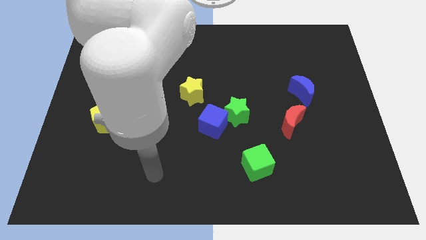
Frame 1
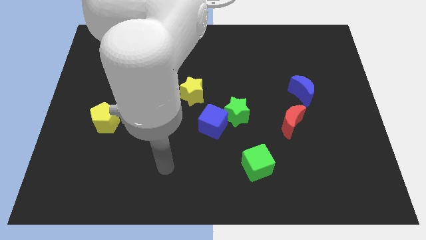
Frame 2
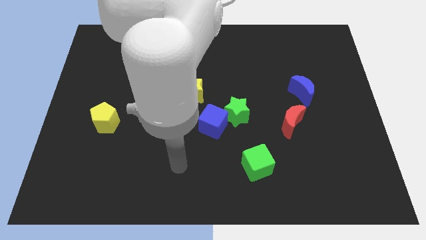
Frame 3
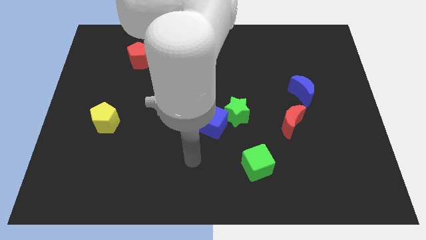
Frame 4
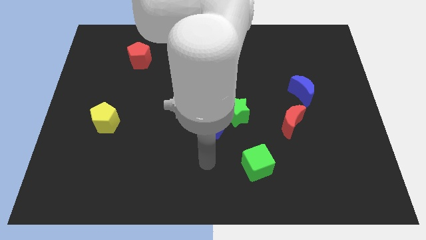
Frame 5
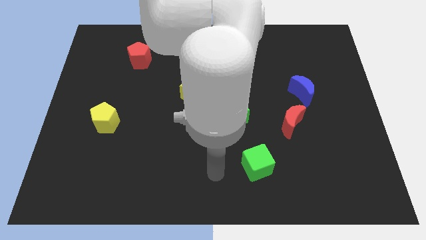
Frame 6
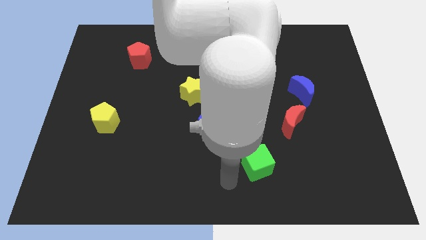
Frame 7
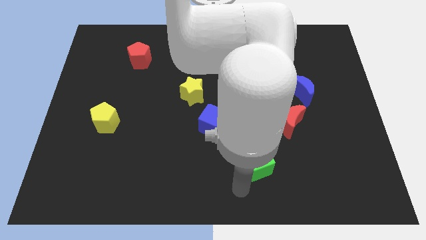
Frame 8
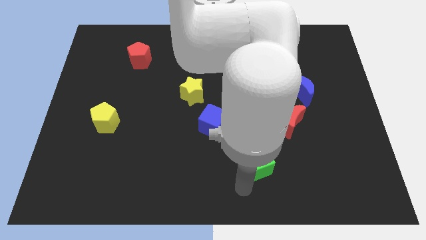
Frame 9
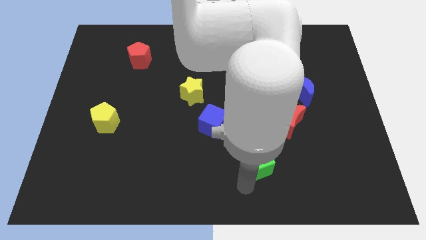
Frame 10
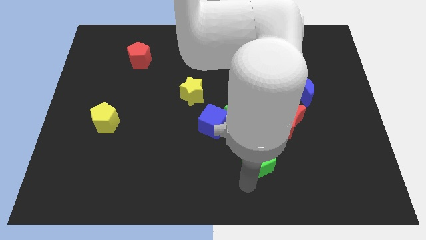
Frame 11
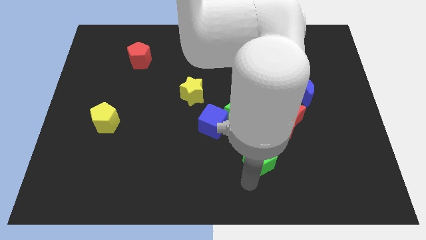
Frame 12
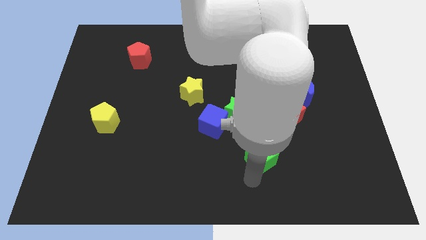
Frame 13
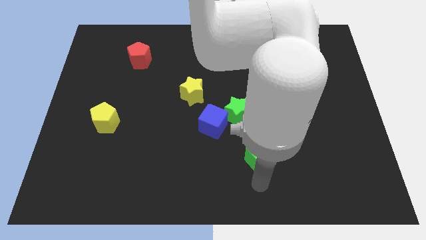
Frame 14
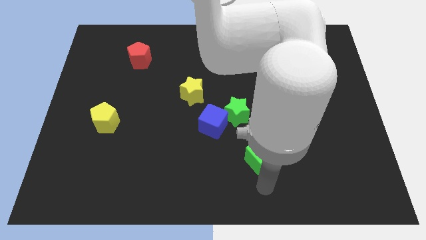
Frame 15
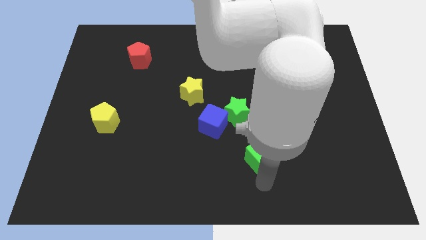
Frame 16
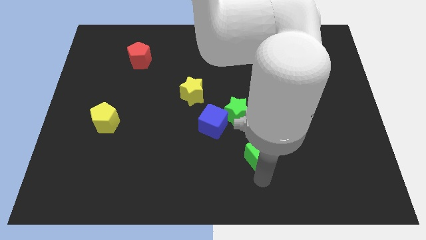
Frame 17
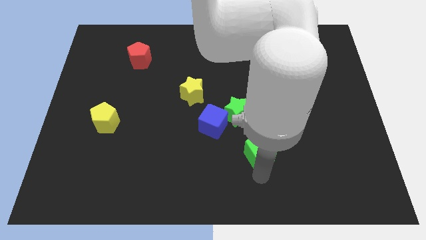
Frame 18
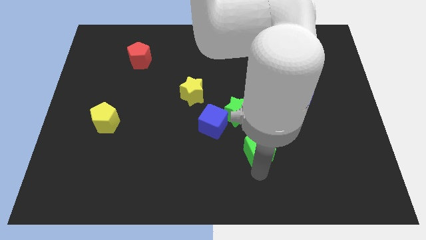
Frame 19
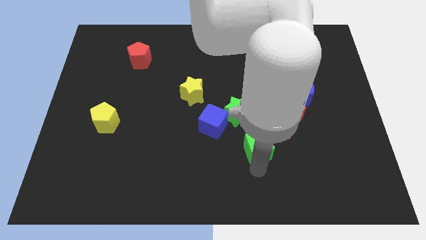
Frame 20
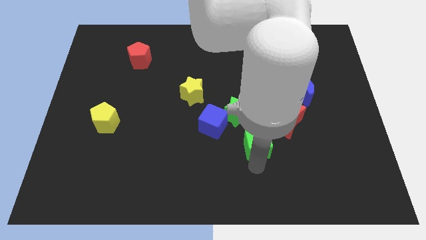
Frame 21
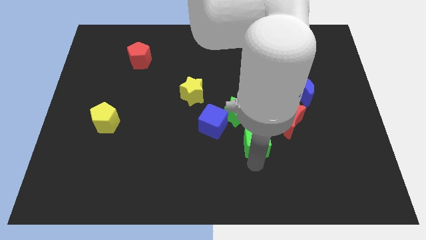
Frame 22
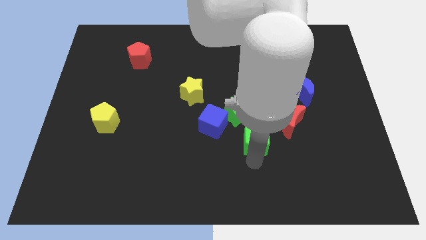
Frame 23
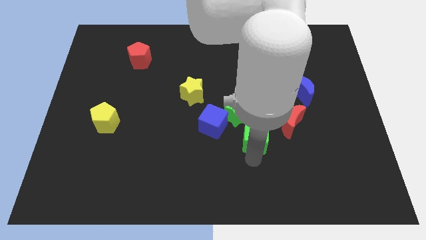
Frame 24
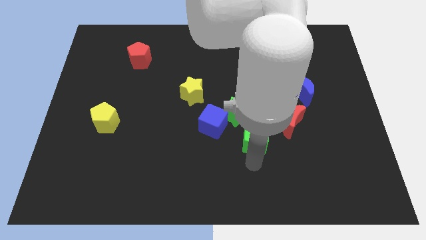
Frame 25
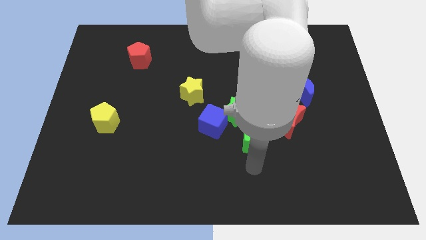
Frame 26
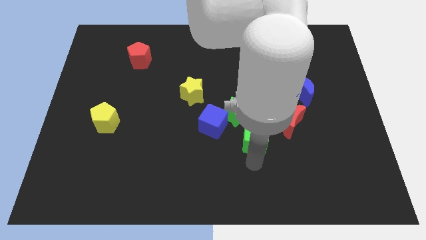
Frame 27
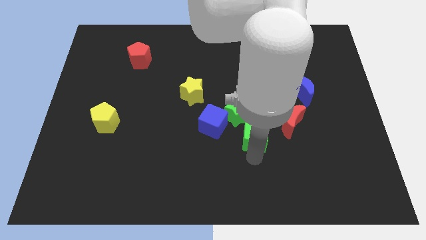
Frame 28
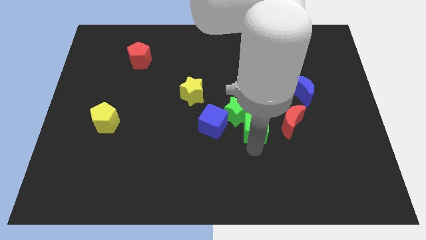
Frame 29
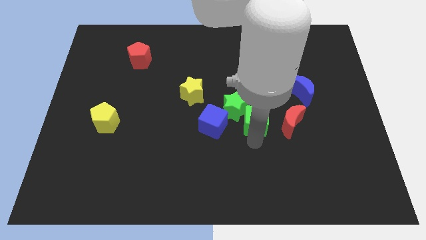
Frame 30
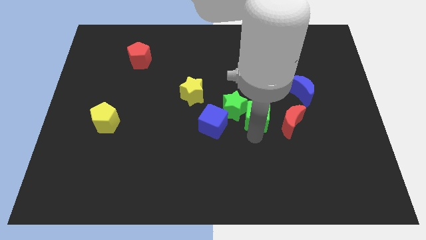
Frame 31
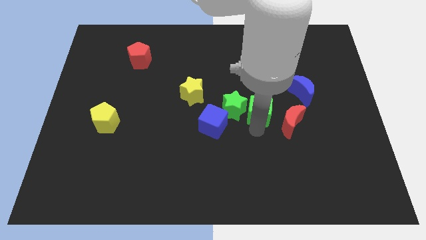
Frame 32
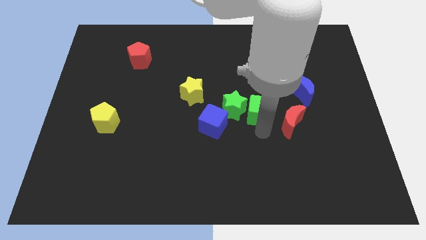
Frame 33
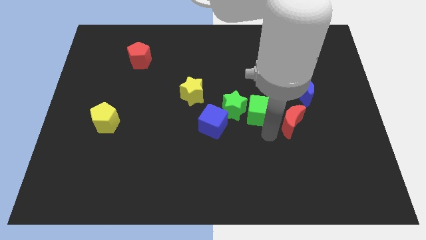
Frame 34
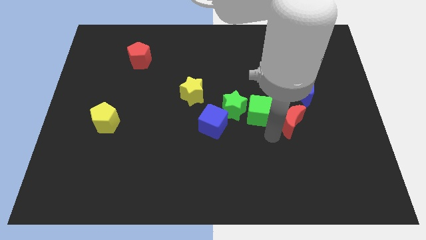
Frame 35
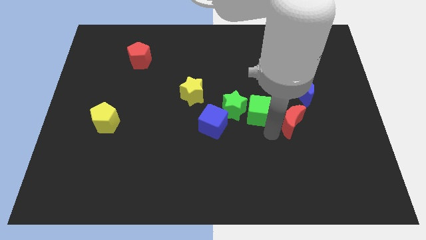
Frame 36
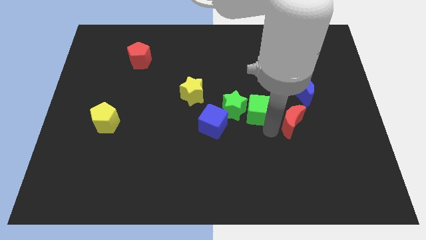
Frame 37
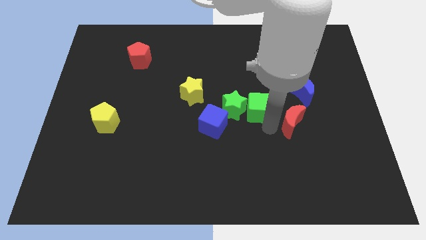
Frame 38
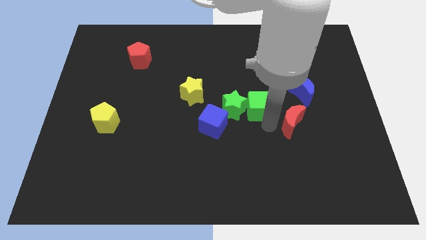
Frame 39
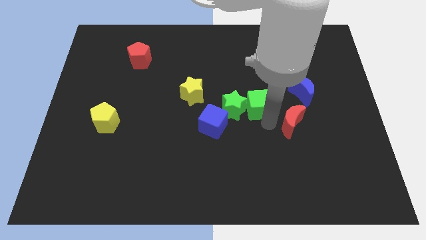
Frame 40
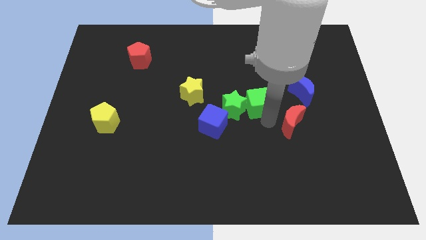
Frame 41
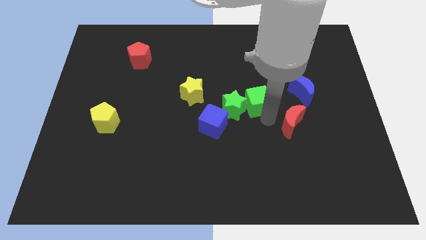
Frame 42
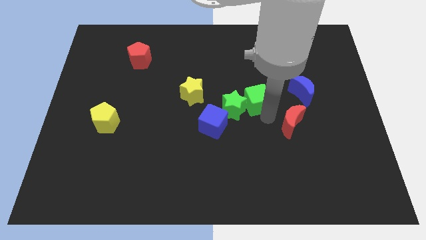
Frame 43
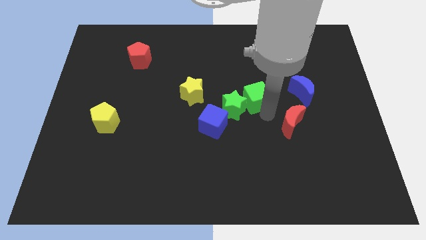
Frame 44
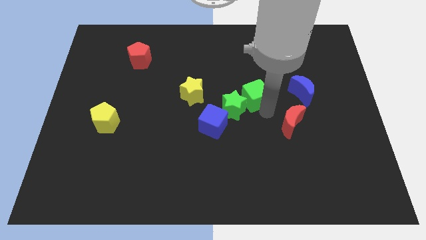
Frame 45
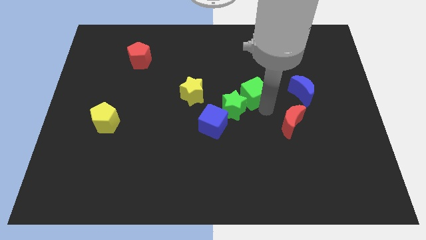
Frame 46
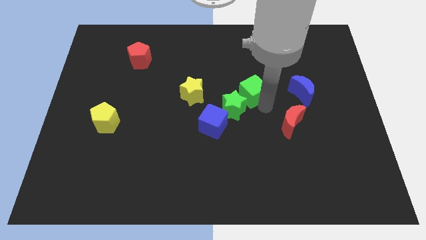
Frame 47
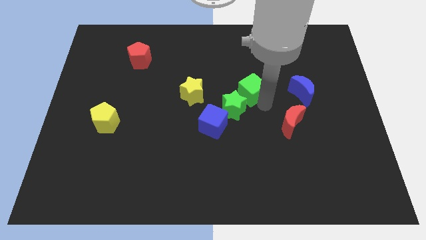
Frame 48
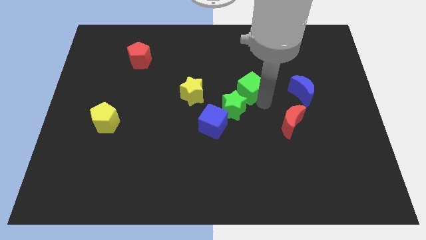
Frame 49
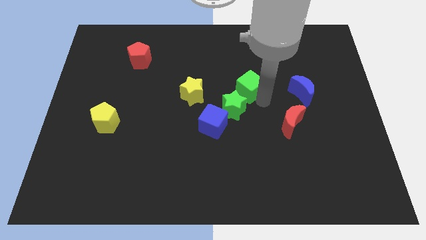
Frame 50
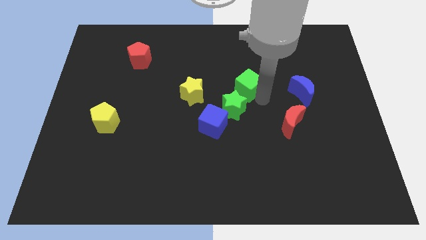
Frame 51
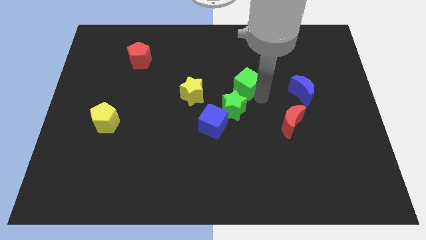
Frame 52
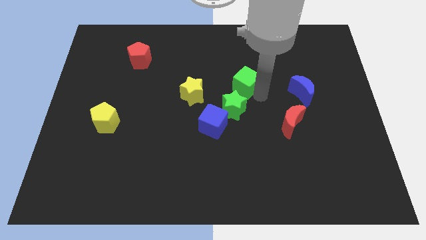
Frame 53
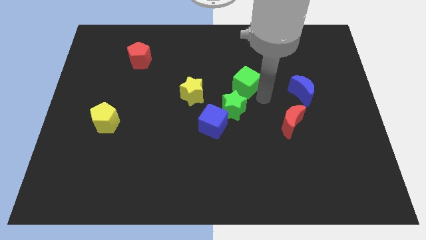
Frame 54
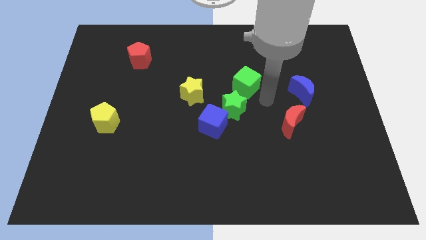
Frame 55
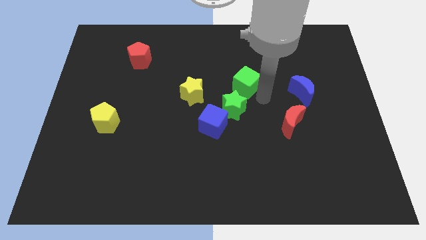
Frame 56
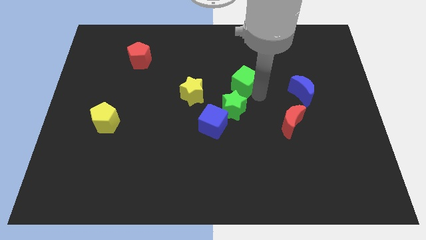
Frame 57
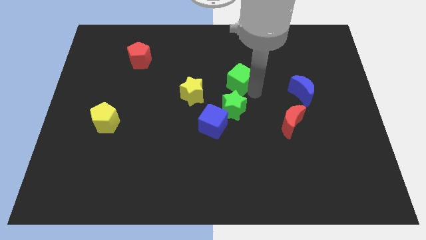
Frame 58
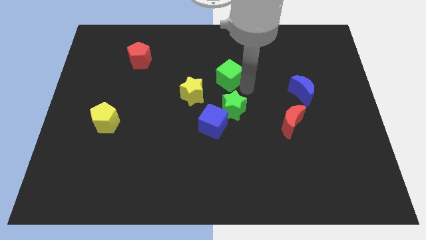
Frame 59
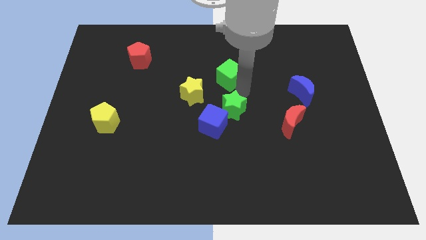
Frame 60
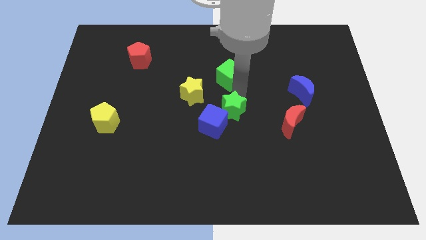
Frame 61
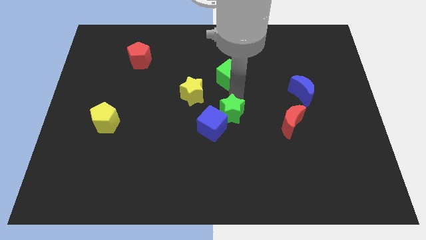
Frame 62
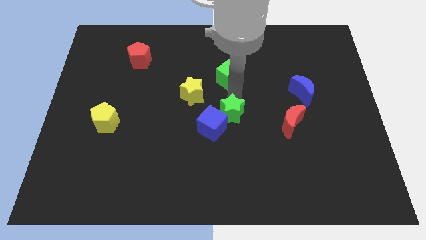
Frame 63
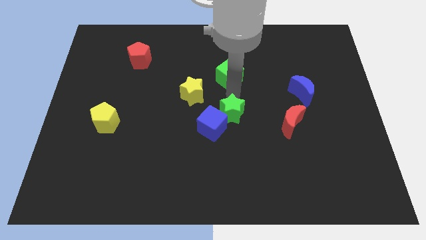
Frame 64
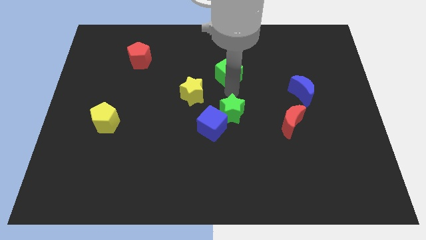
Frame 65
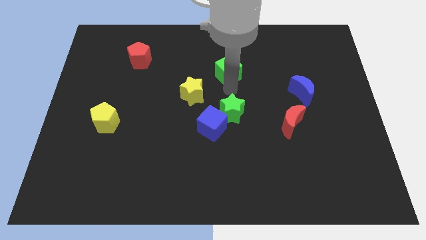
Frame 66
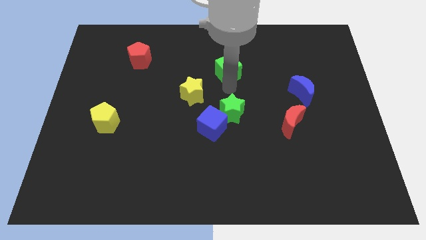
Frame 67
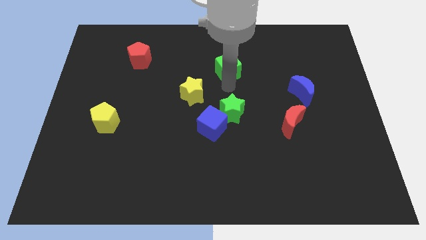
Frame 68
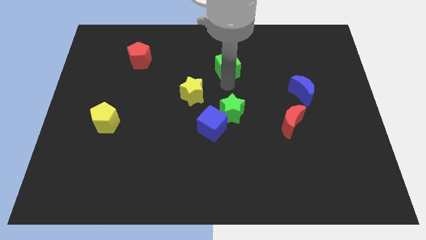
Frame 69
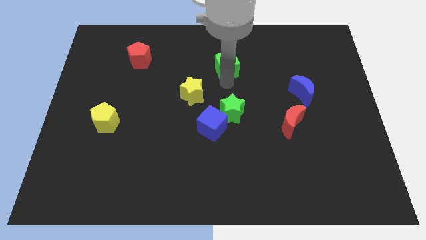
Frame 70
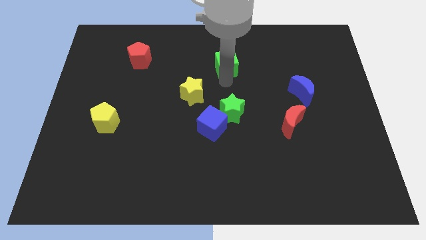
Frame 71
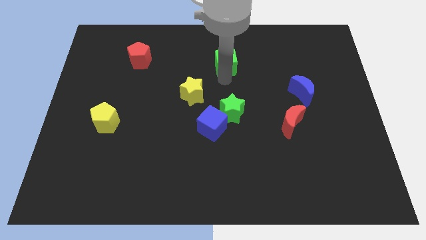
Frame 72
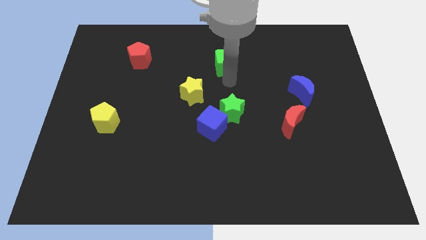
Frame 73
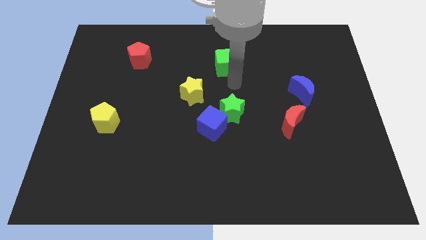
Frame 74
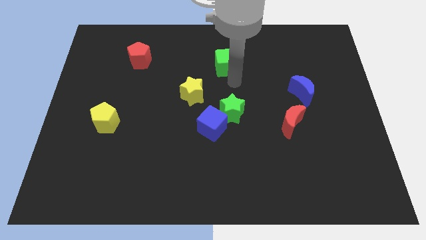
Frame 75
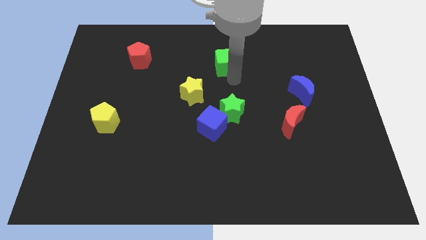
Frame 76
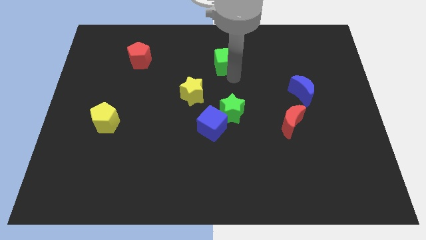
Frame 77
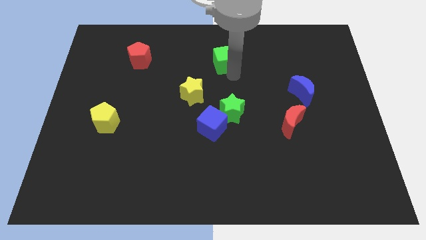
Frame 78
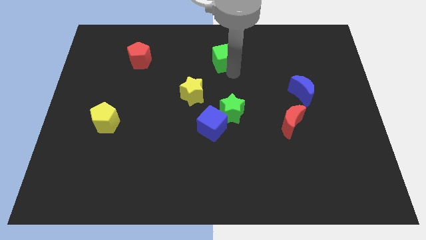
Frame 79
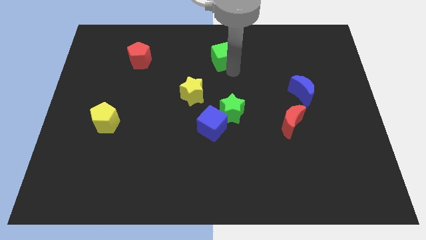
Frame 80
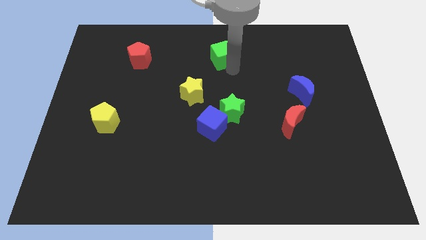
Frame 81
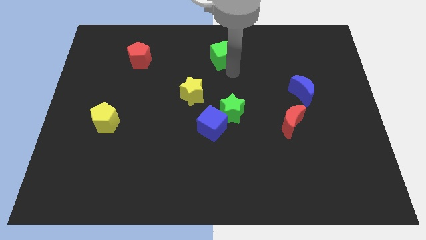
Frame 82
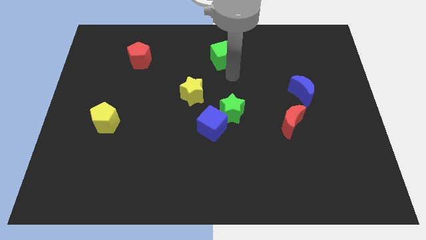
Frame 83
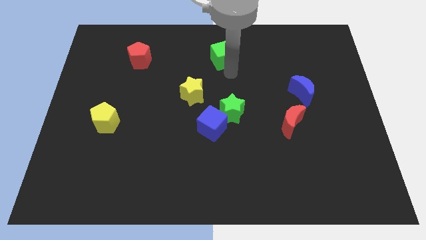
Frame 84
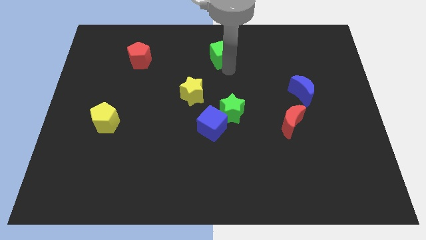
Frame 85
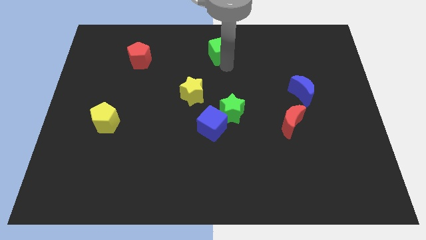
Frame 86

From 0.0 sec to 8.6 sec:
move the green cube to the towards your base
